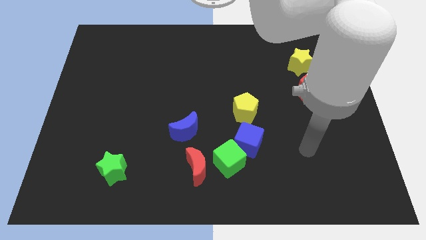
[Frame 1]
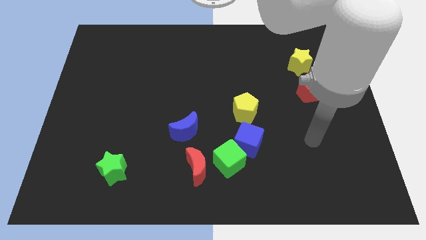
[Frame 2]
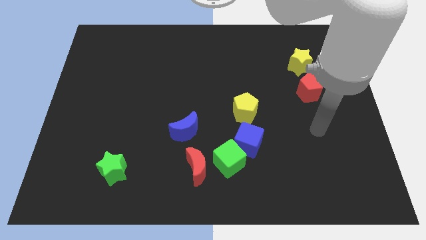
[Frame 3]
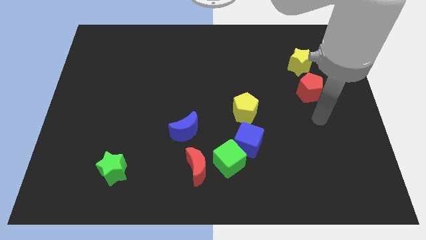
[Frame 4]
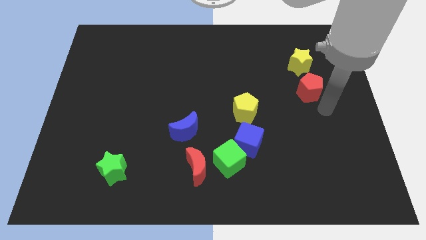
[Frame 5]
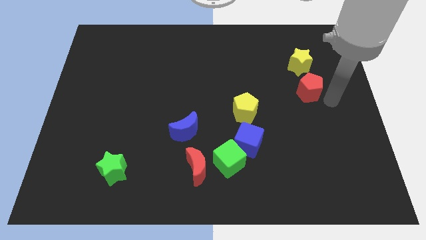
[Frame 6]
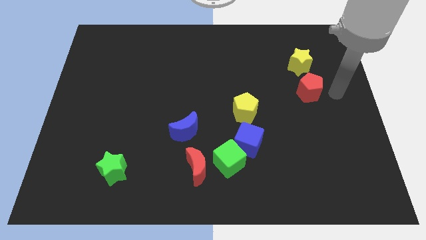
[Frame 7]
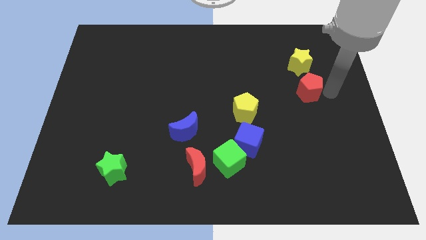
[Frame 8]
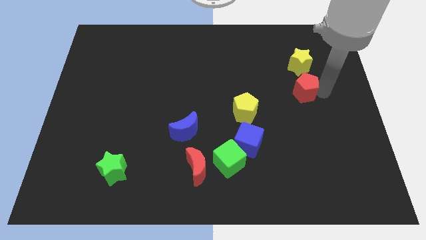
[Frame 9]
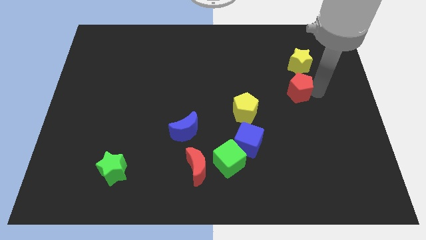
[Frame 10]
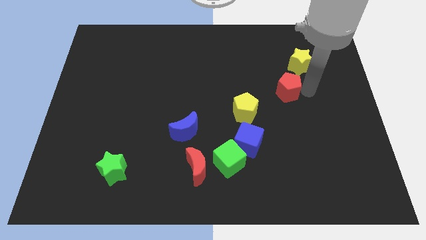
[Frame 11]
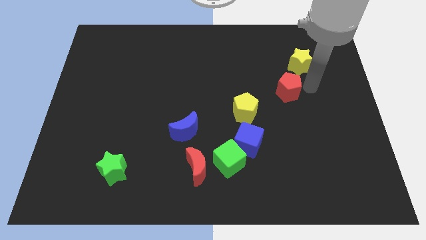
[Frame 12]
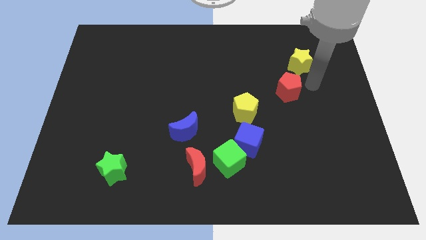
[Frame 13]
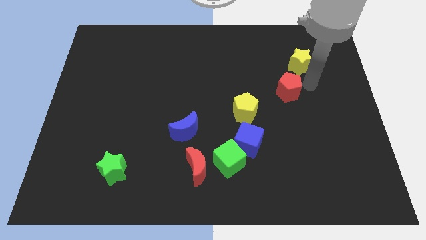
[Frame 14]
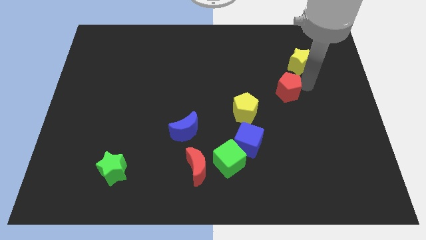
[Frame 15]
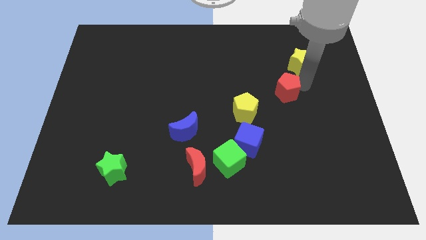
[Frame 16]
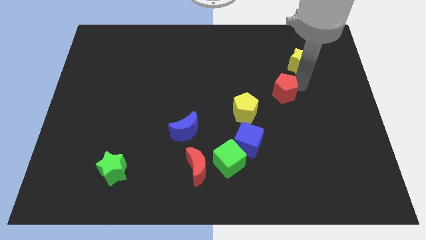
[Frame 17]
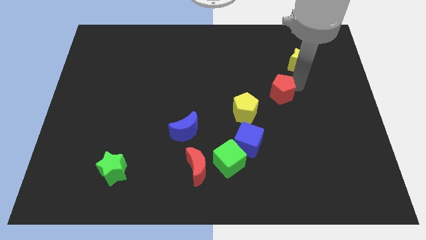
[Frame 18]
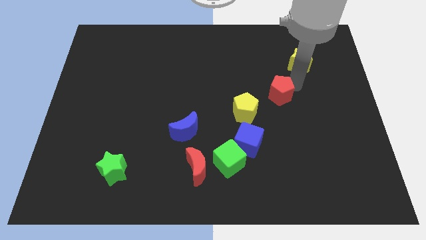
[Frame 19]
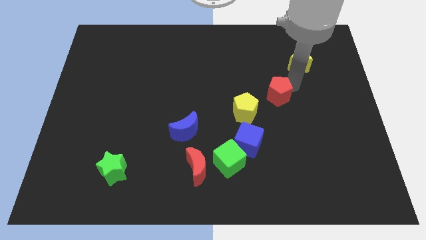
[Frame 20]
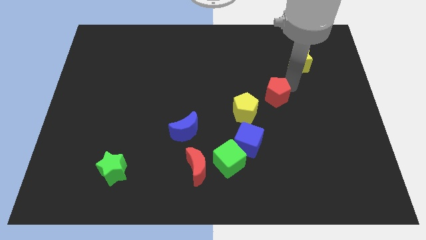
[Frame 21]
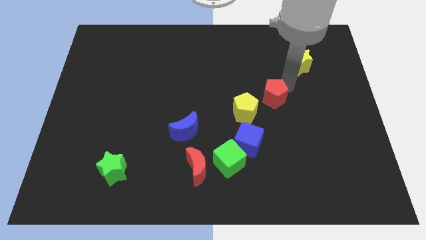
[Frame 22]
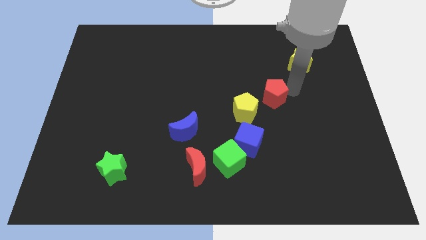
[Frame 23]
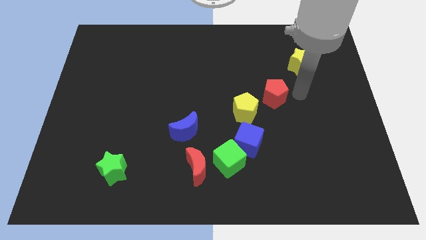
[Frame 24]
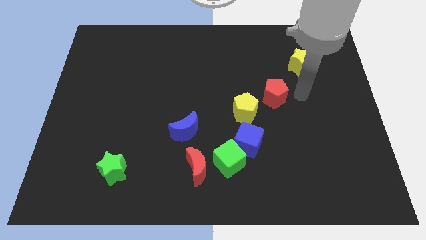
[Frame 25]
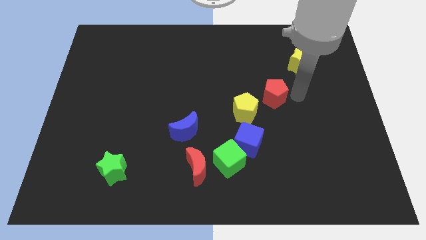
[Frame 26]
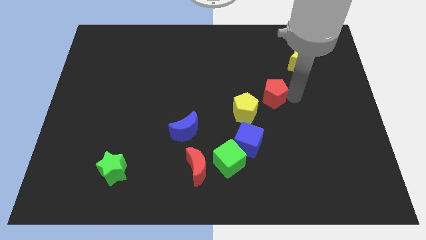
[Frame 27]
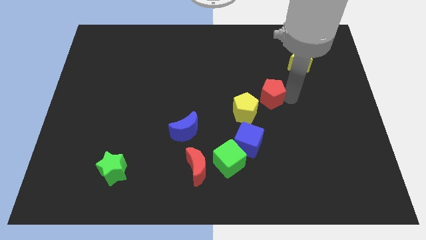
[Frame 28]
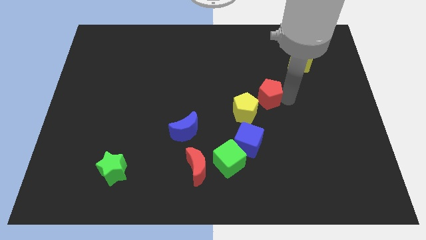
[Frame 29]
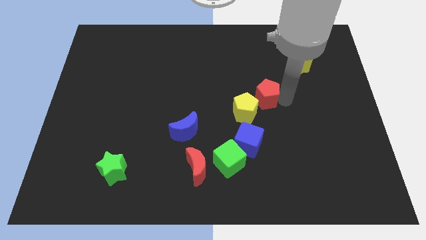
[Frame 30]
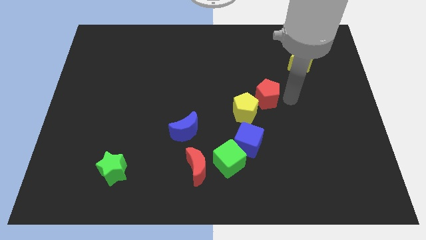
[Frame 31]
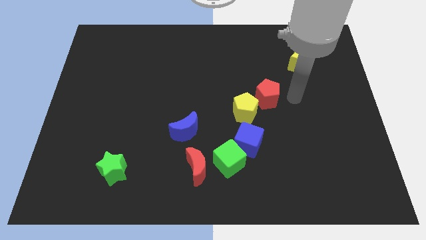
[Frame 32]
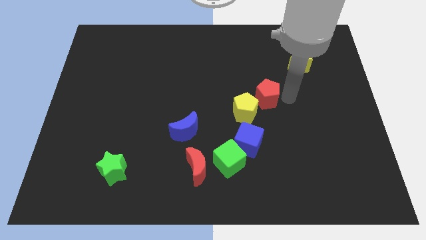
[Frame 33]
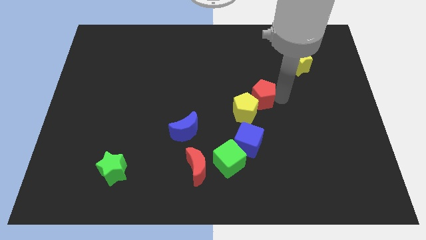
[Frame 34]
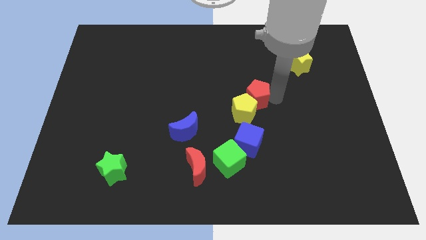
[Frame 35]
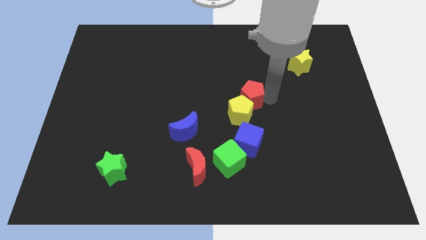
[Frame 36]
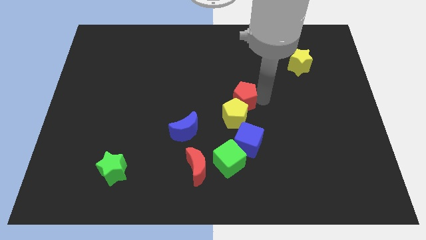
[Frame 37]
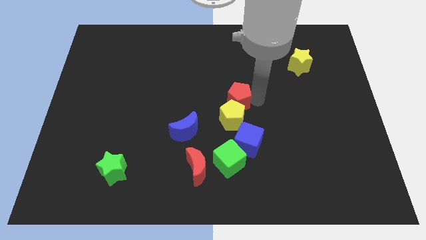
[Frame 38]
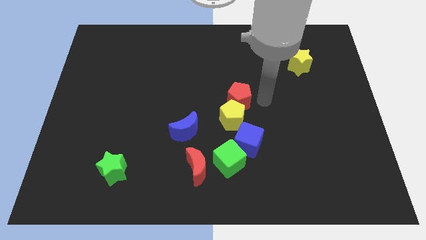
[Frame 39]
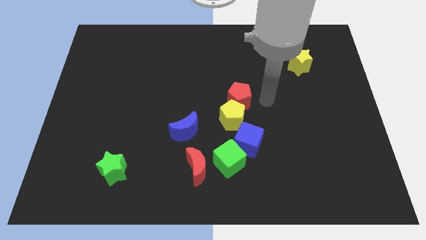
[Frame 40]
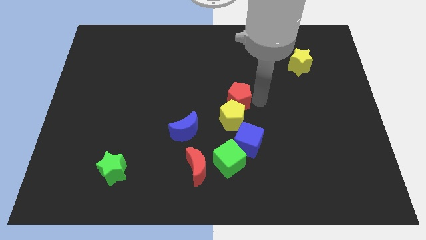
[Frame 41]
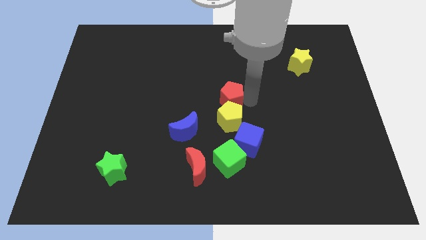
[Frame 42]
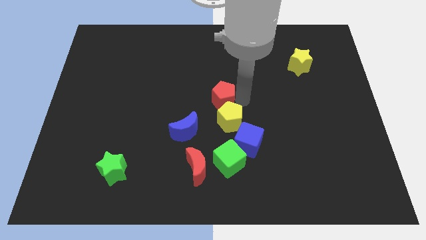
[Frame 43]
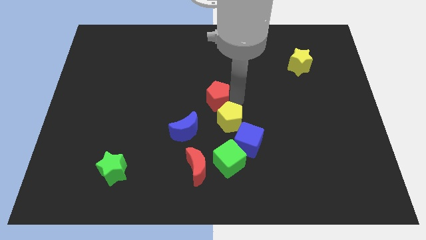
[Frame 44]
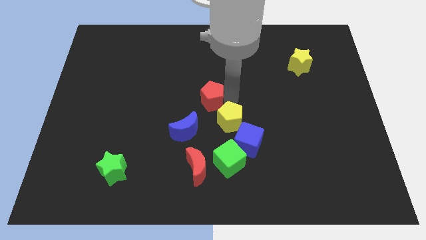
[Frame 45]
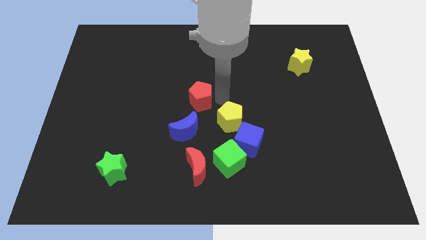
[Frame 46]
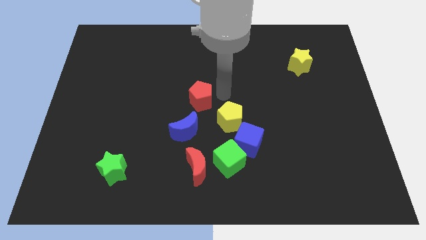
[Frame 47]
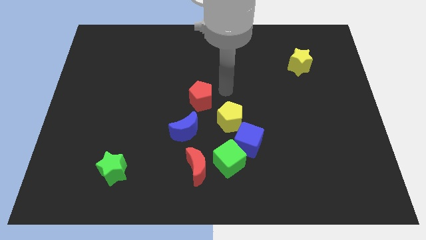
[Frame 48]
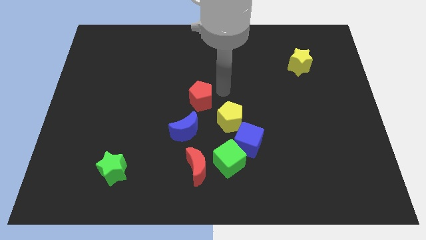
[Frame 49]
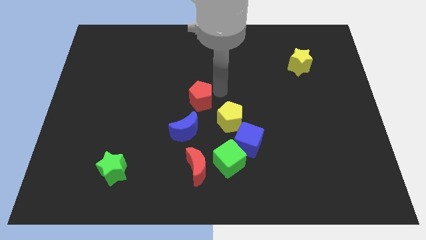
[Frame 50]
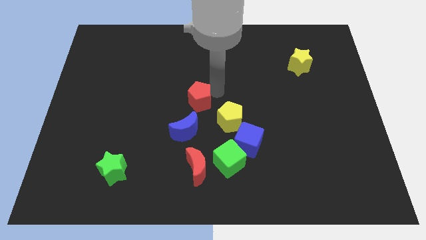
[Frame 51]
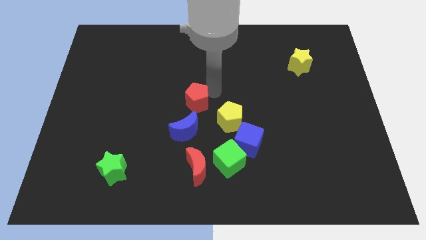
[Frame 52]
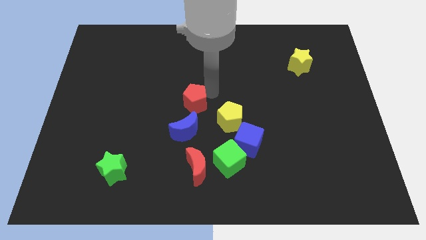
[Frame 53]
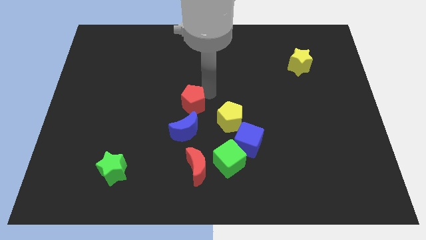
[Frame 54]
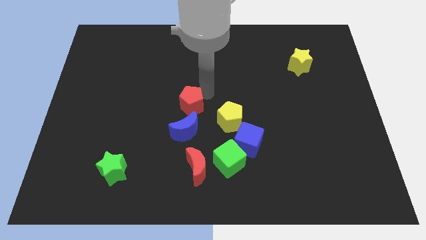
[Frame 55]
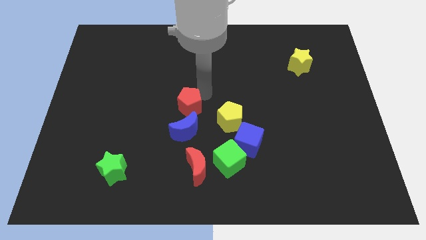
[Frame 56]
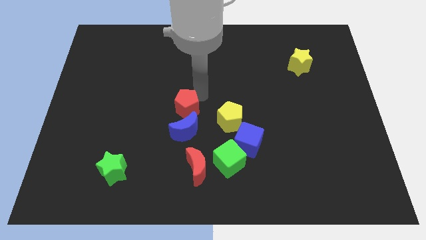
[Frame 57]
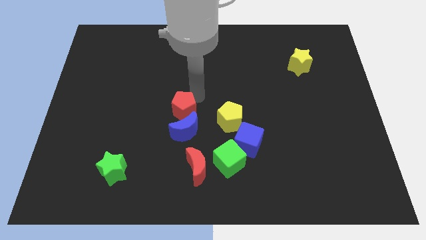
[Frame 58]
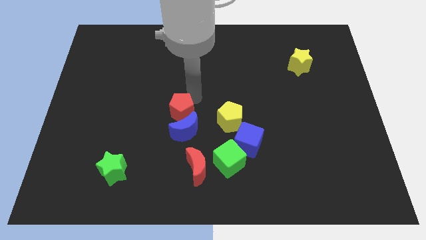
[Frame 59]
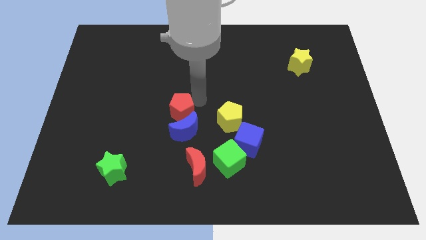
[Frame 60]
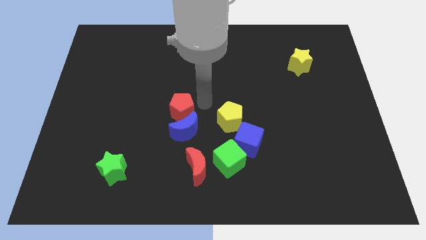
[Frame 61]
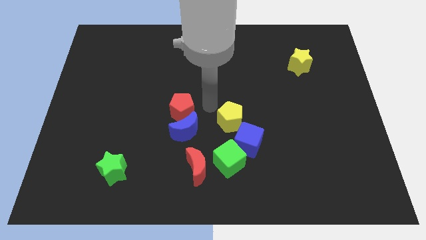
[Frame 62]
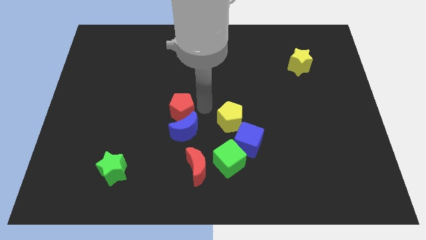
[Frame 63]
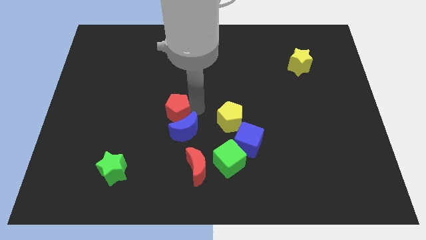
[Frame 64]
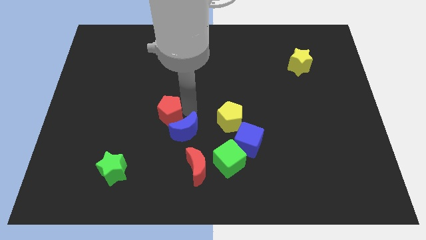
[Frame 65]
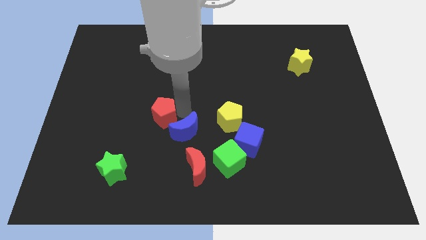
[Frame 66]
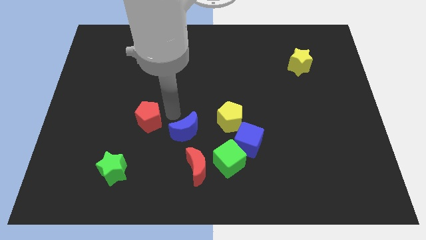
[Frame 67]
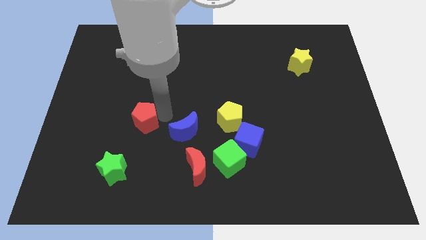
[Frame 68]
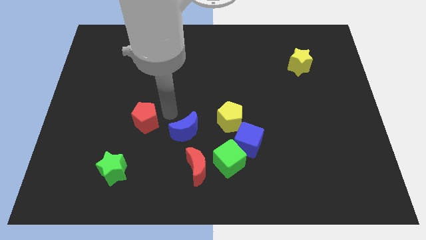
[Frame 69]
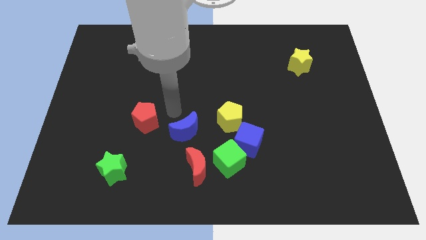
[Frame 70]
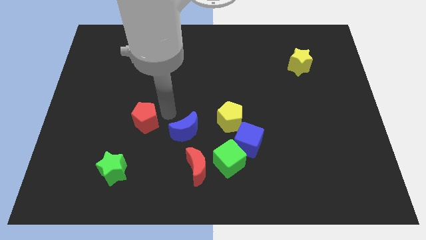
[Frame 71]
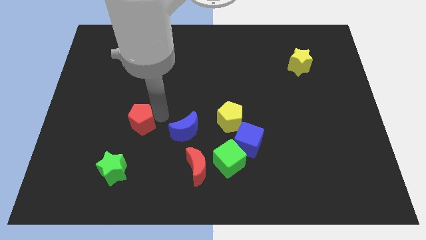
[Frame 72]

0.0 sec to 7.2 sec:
move the red pentagon to the top of the green star
